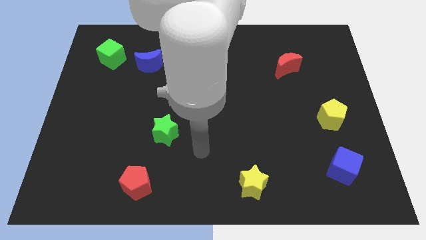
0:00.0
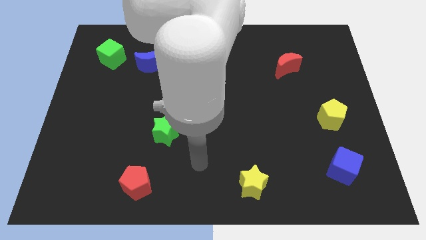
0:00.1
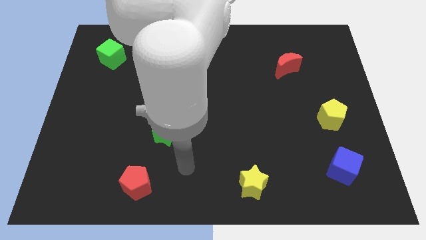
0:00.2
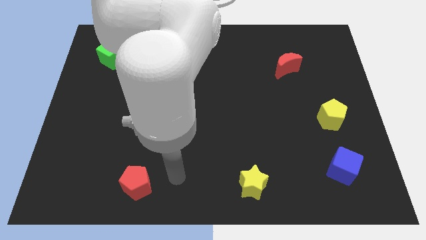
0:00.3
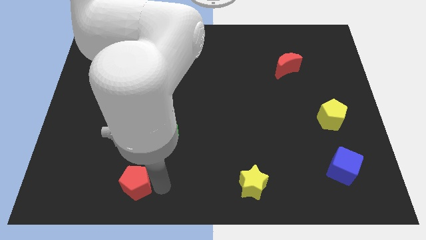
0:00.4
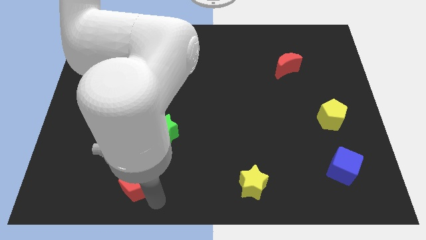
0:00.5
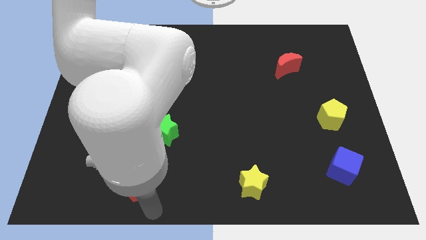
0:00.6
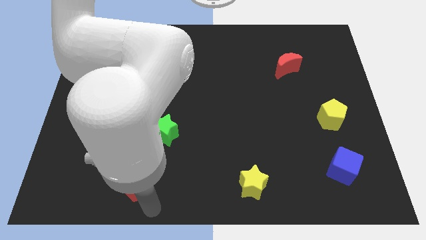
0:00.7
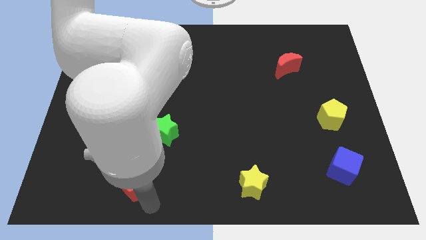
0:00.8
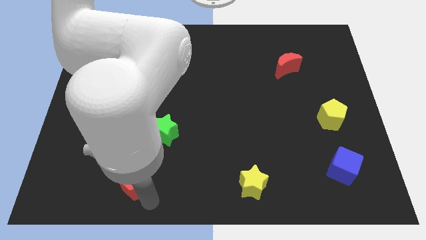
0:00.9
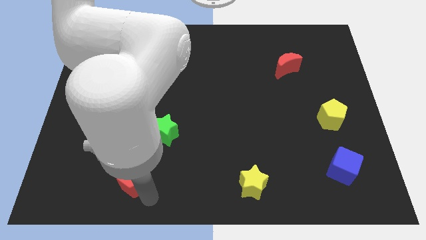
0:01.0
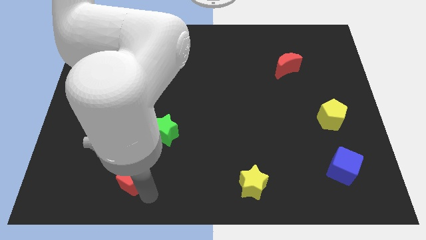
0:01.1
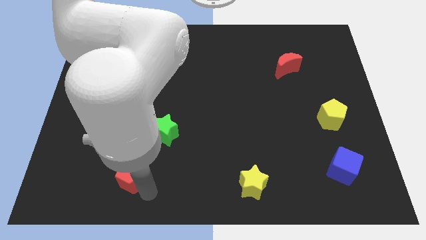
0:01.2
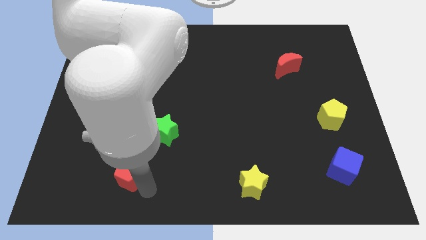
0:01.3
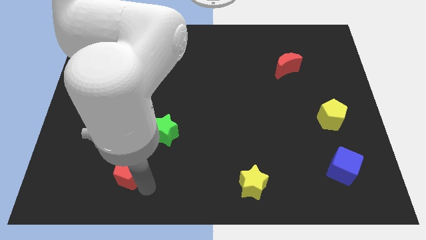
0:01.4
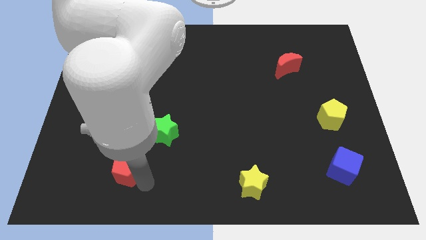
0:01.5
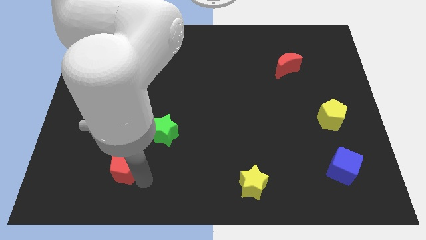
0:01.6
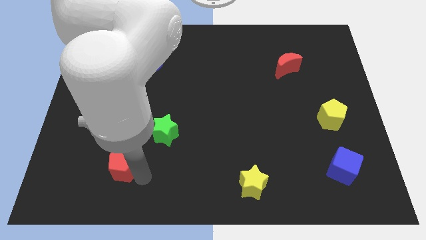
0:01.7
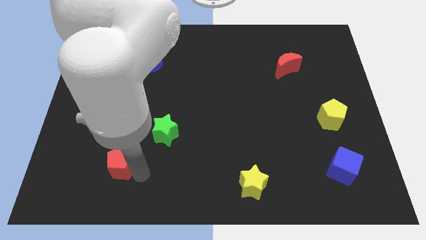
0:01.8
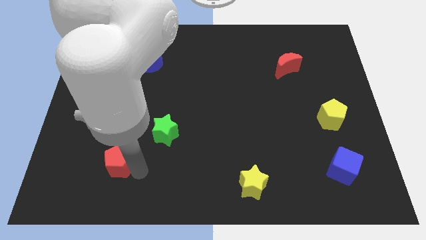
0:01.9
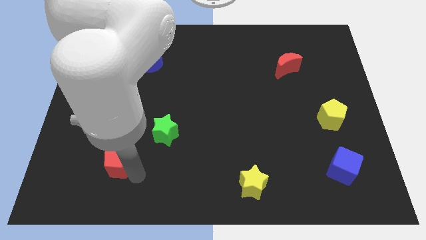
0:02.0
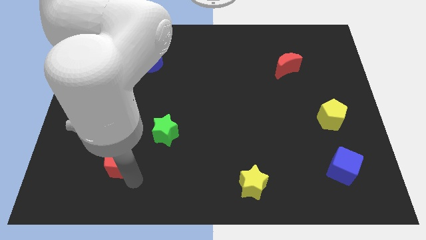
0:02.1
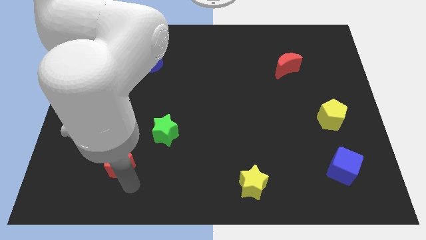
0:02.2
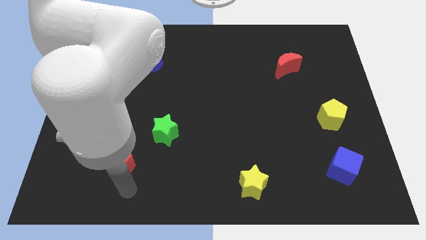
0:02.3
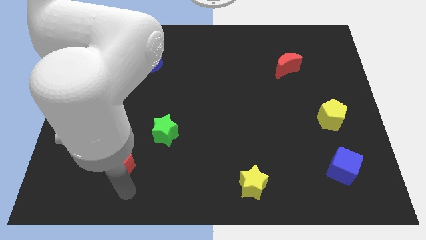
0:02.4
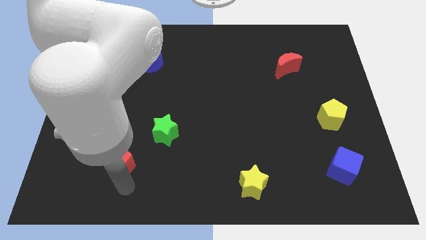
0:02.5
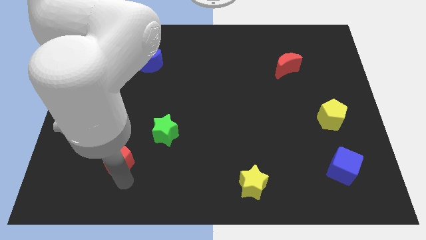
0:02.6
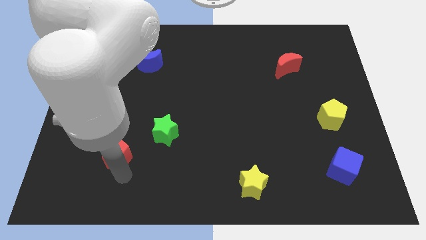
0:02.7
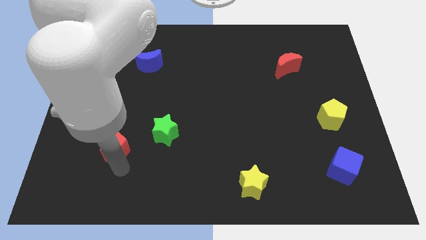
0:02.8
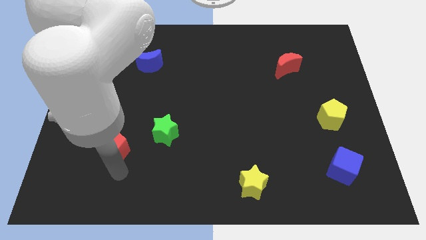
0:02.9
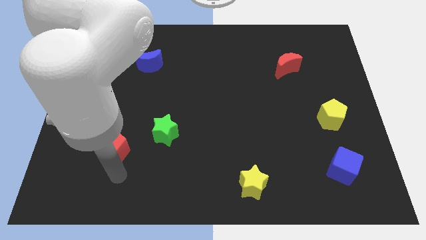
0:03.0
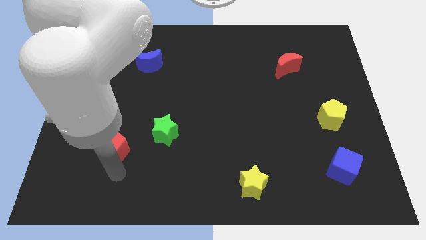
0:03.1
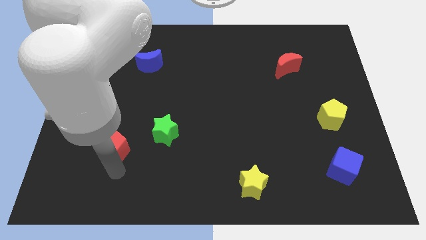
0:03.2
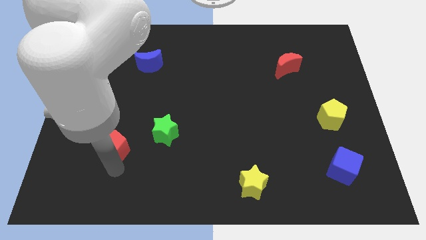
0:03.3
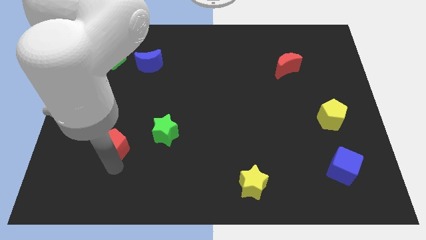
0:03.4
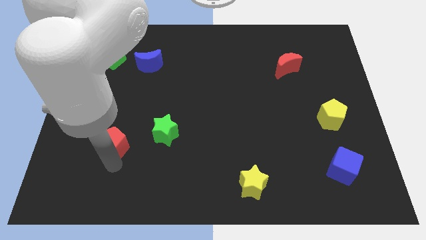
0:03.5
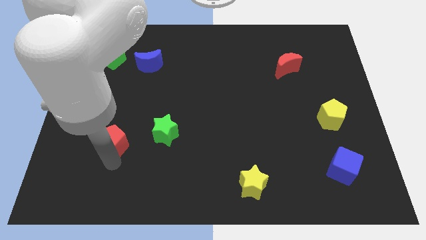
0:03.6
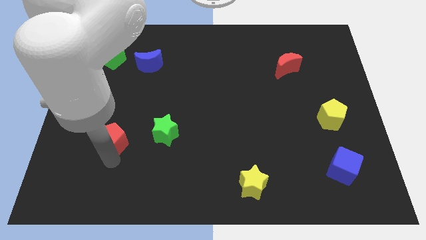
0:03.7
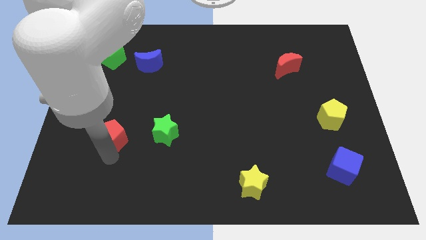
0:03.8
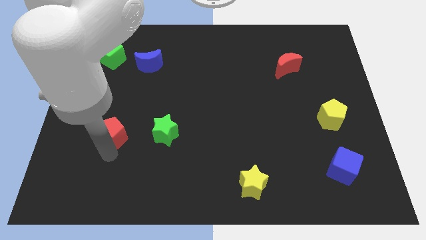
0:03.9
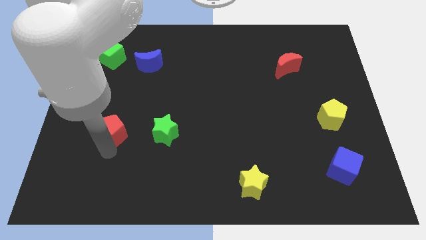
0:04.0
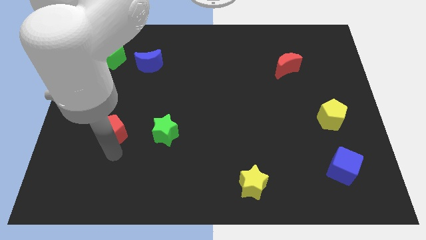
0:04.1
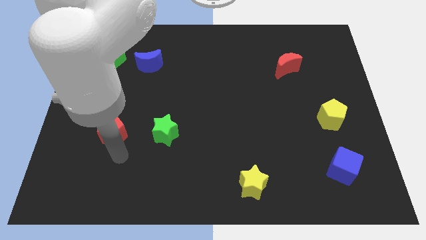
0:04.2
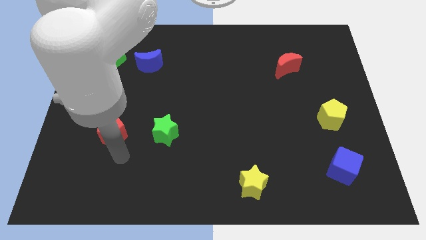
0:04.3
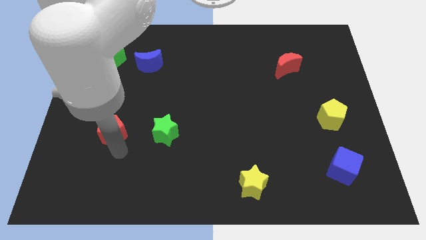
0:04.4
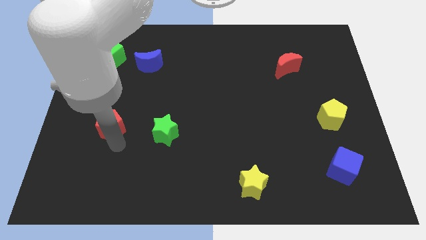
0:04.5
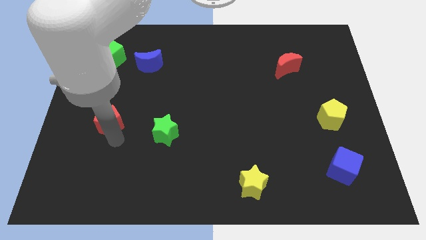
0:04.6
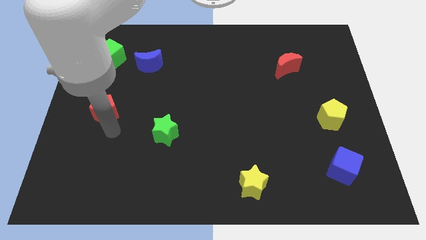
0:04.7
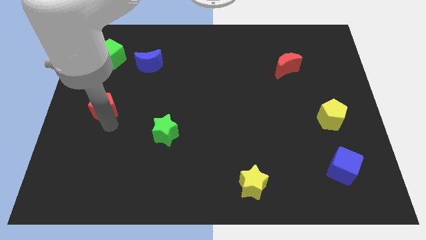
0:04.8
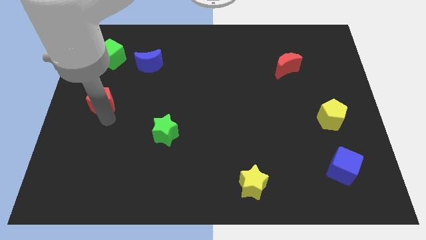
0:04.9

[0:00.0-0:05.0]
move the red pentagon to the bottom side of the green cube

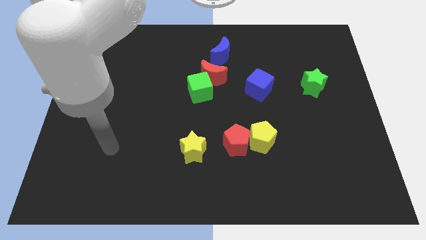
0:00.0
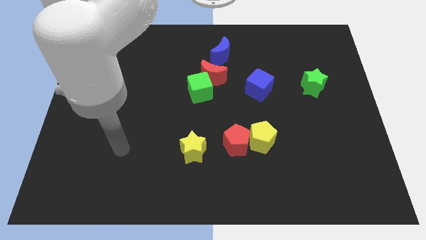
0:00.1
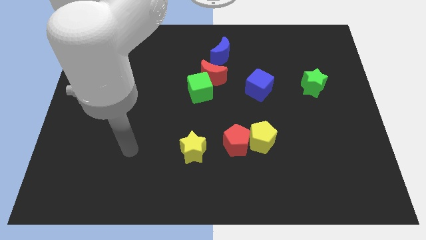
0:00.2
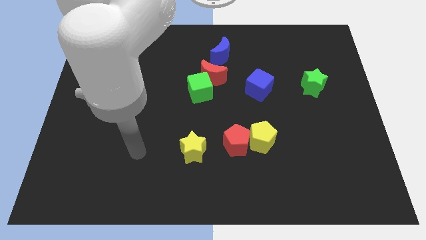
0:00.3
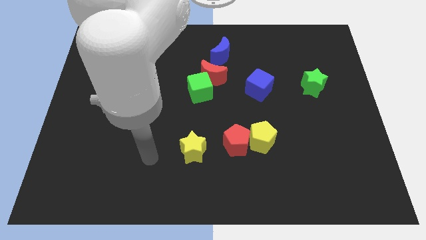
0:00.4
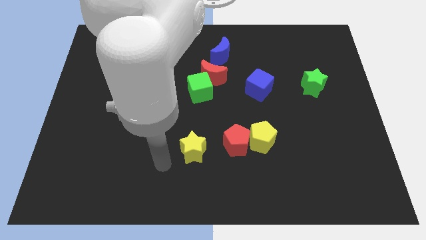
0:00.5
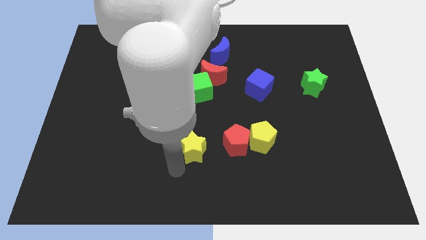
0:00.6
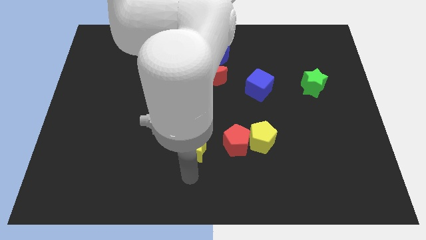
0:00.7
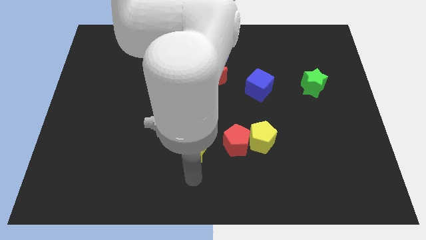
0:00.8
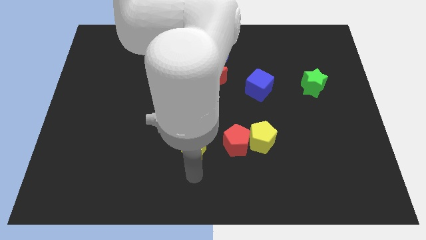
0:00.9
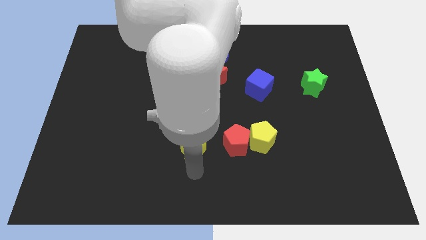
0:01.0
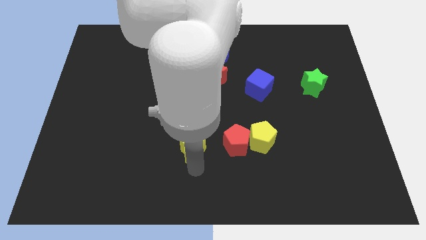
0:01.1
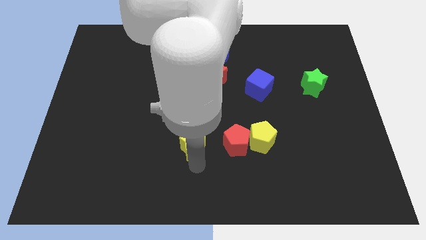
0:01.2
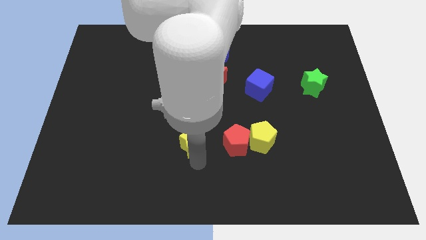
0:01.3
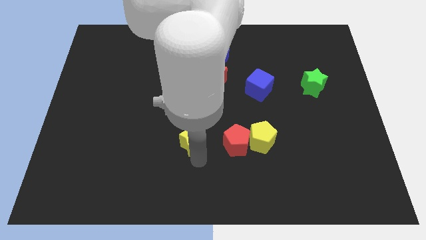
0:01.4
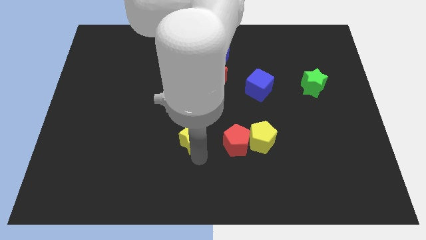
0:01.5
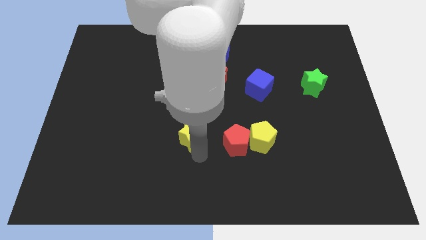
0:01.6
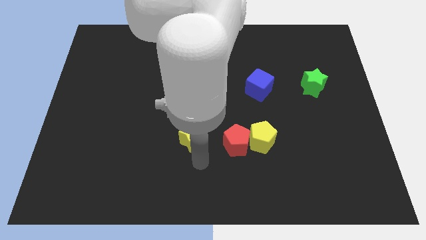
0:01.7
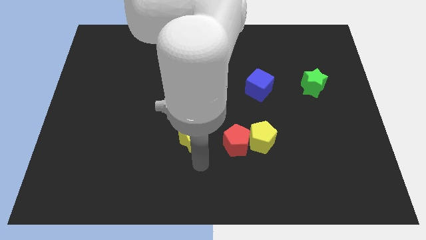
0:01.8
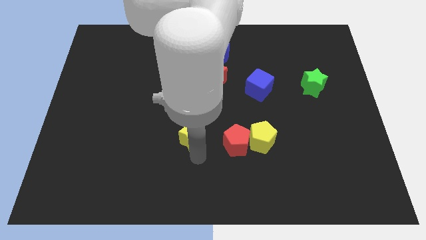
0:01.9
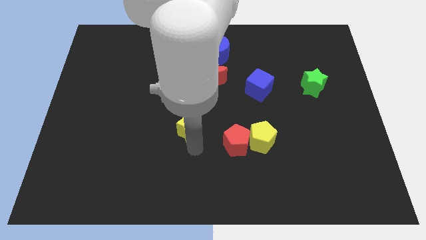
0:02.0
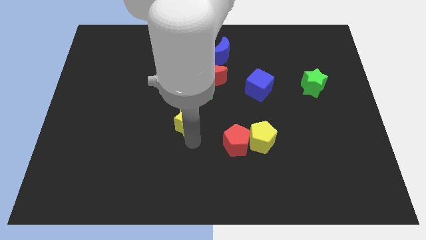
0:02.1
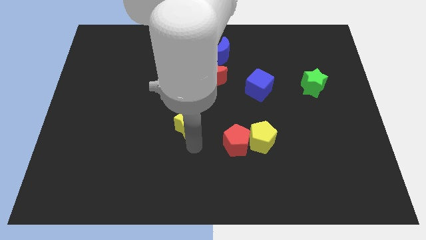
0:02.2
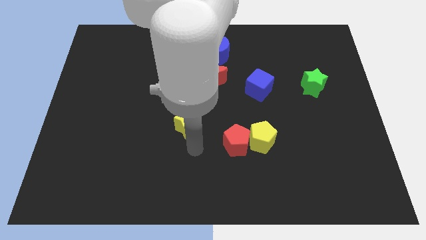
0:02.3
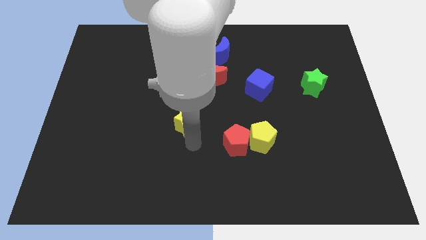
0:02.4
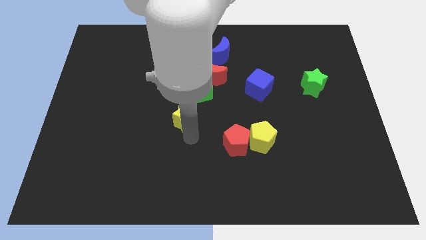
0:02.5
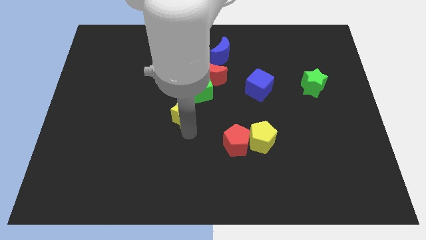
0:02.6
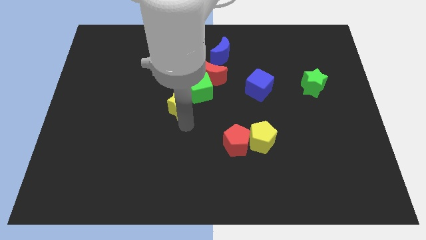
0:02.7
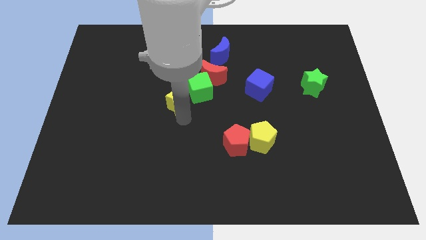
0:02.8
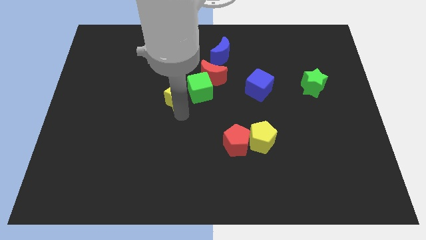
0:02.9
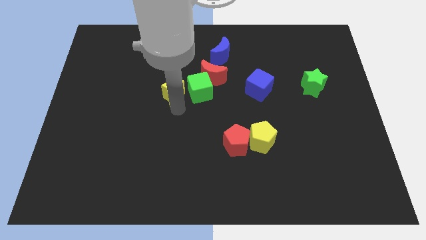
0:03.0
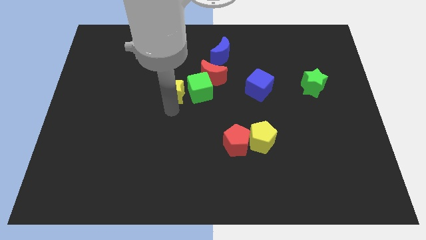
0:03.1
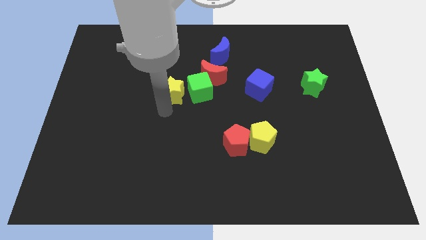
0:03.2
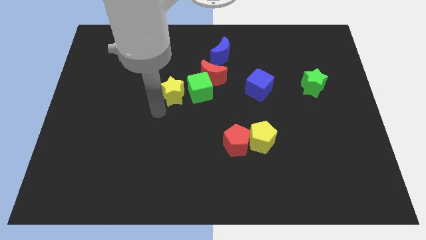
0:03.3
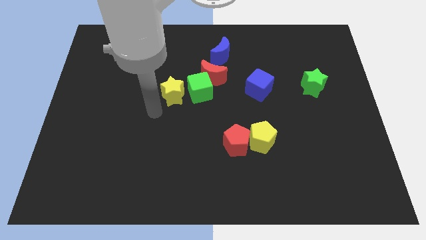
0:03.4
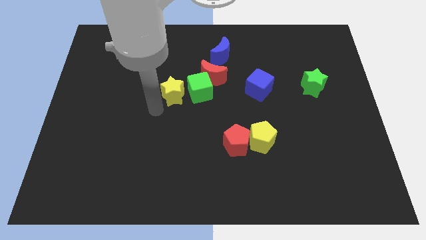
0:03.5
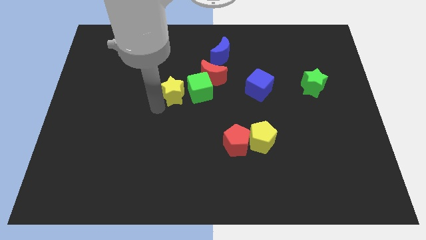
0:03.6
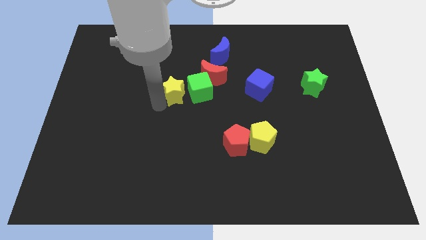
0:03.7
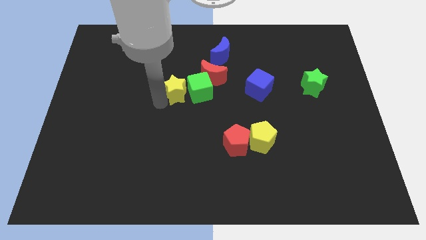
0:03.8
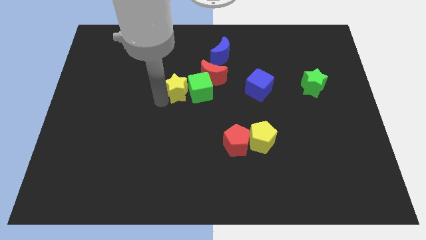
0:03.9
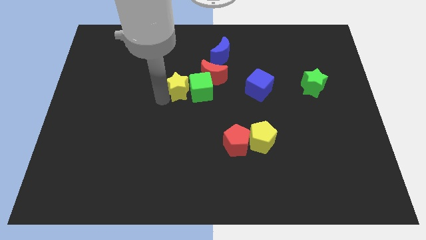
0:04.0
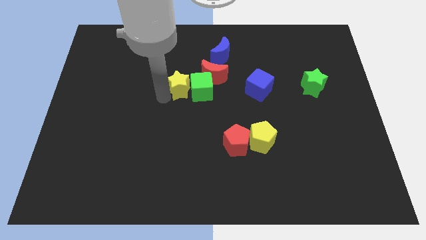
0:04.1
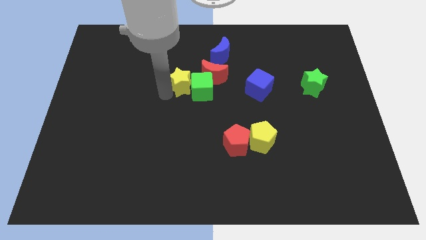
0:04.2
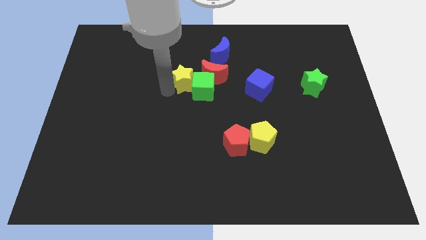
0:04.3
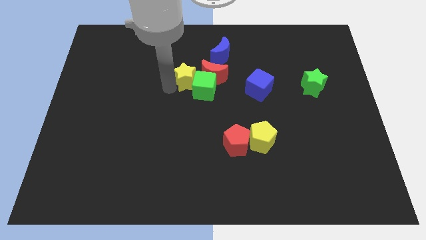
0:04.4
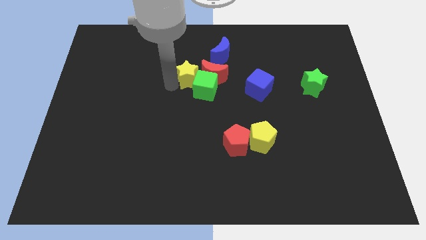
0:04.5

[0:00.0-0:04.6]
put the yellow star to the top of the green cube
